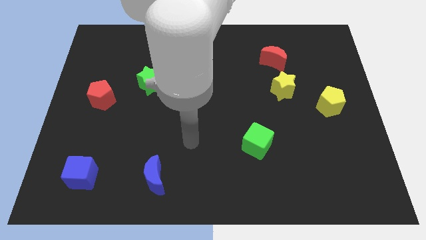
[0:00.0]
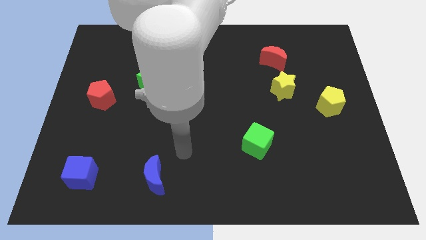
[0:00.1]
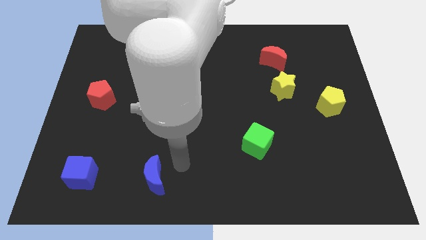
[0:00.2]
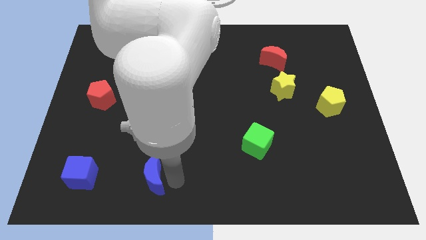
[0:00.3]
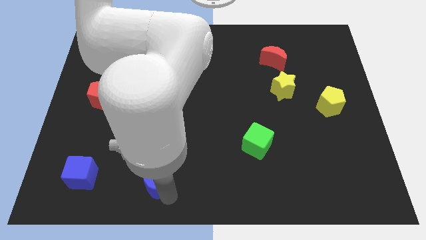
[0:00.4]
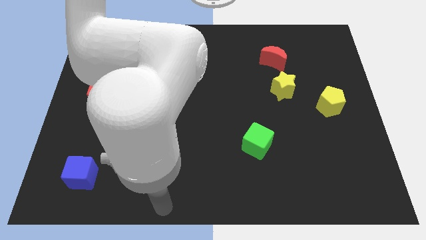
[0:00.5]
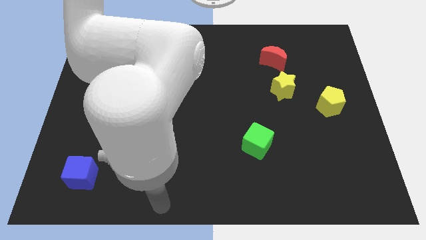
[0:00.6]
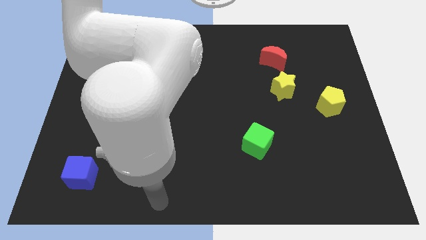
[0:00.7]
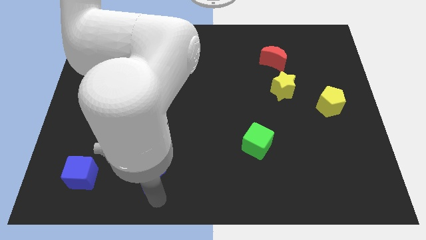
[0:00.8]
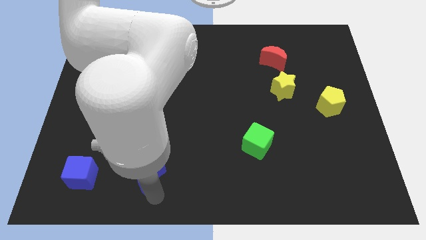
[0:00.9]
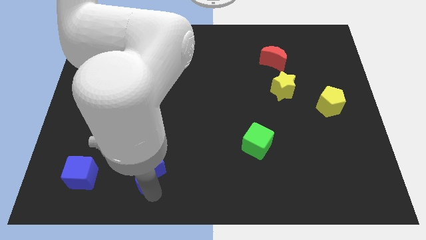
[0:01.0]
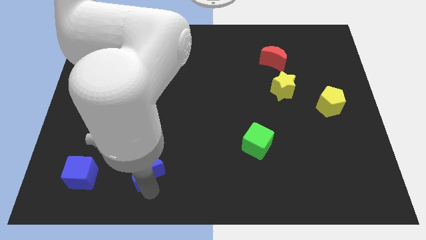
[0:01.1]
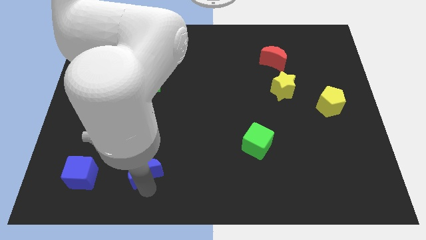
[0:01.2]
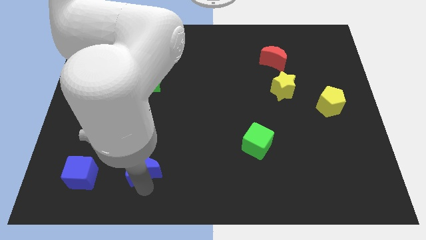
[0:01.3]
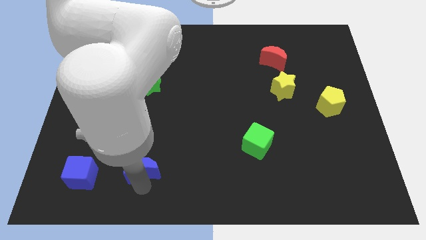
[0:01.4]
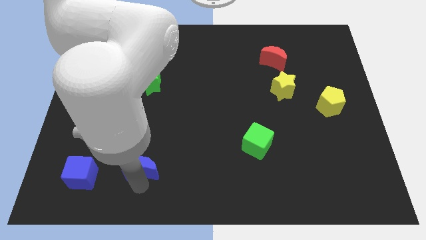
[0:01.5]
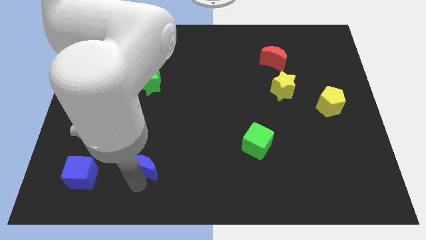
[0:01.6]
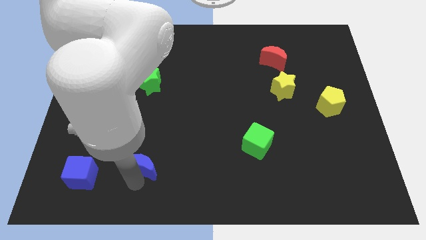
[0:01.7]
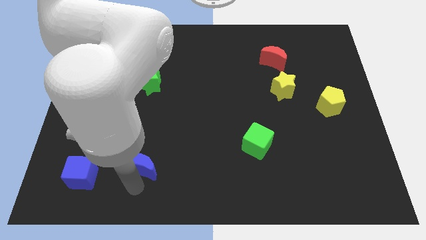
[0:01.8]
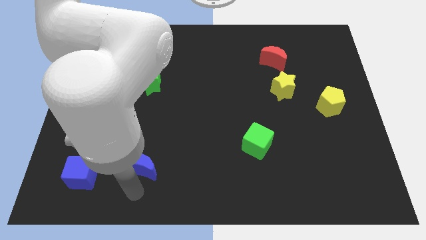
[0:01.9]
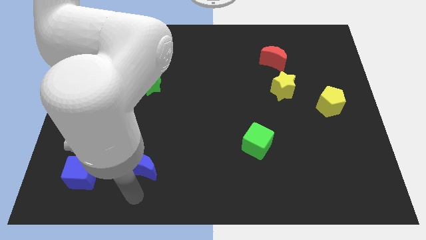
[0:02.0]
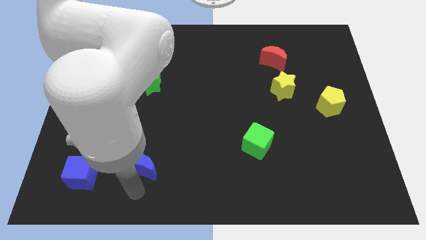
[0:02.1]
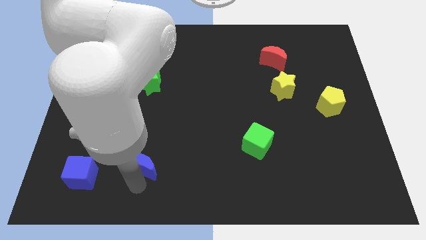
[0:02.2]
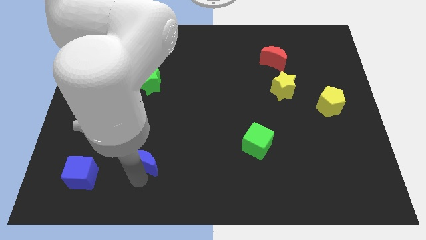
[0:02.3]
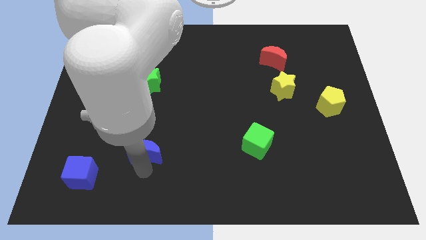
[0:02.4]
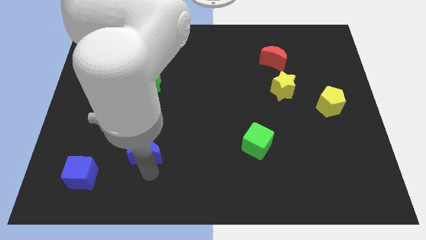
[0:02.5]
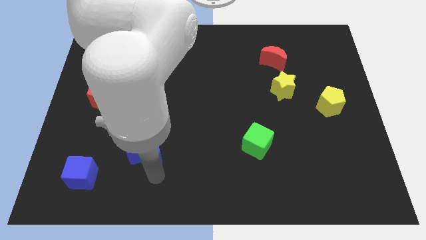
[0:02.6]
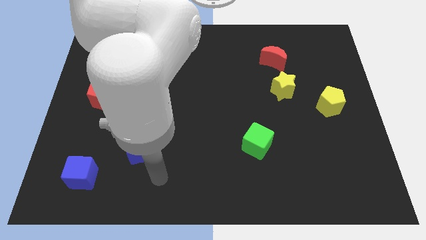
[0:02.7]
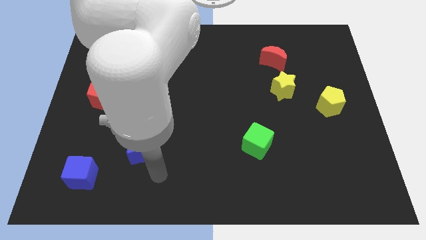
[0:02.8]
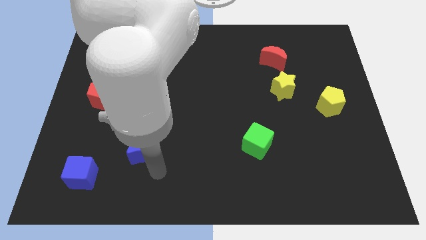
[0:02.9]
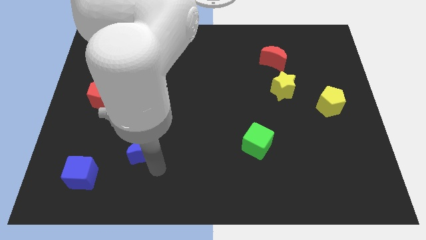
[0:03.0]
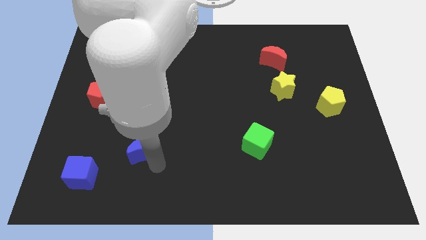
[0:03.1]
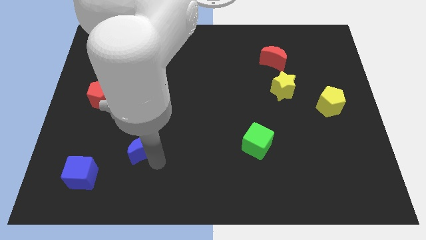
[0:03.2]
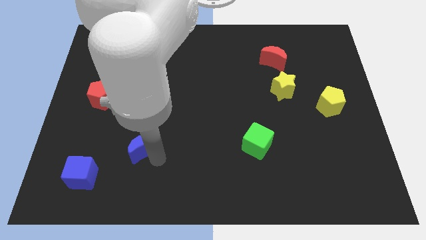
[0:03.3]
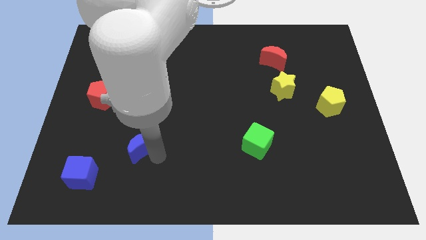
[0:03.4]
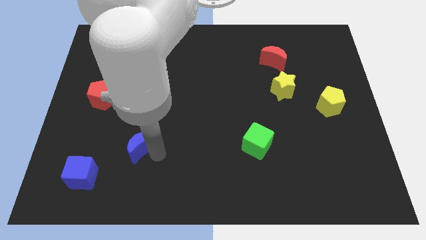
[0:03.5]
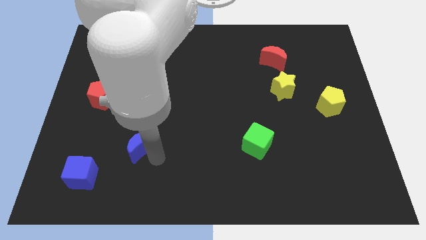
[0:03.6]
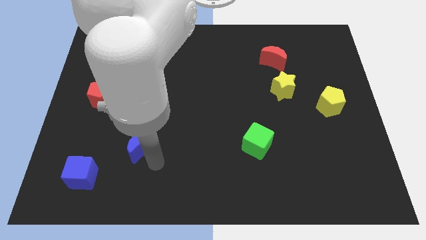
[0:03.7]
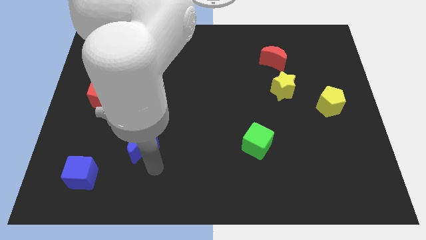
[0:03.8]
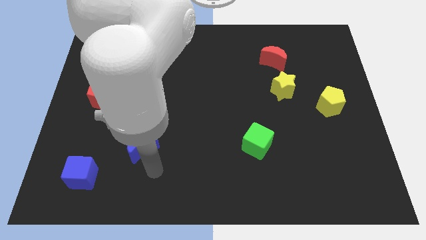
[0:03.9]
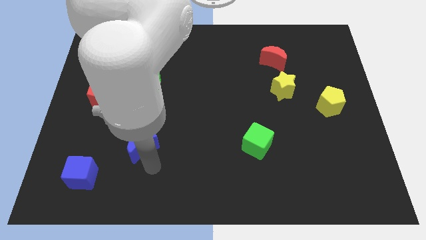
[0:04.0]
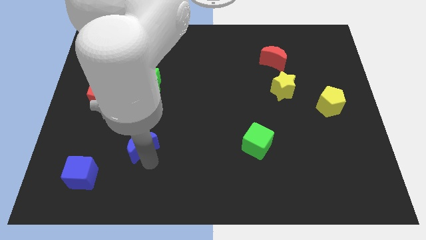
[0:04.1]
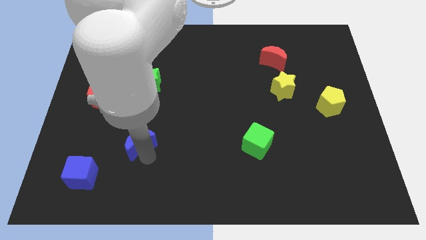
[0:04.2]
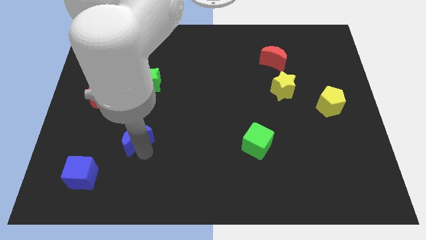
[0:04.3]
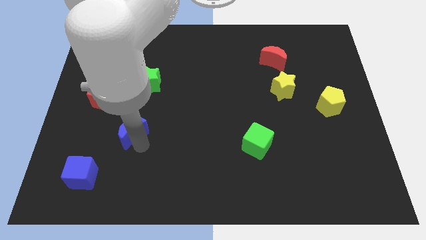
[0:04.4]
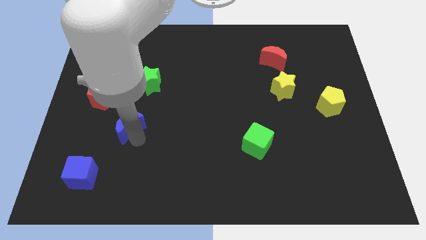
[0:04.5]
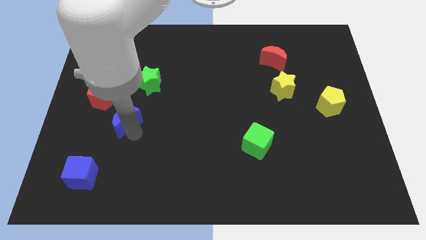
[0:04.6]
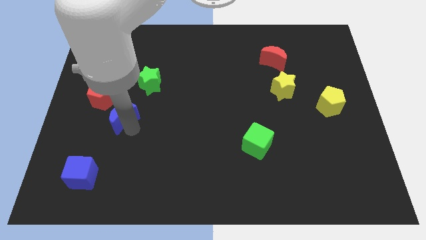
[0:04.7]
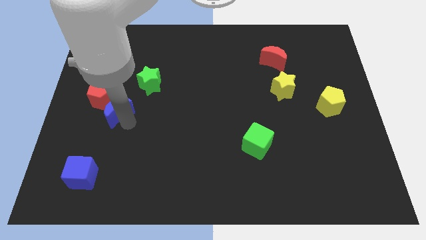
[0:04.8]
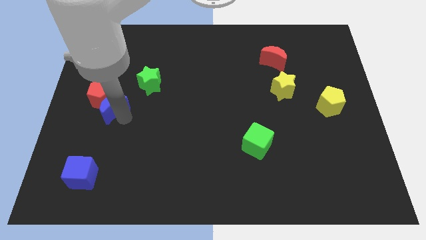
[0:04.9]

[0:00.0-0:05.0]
put the blue moon close to the red pentagon

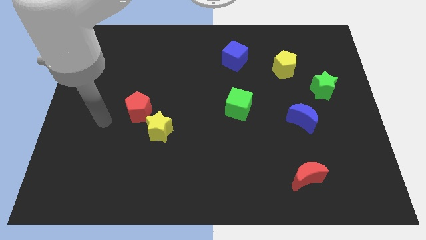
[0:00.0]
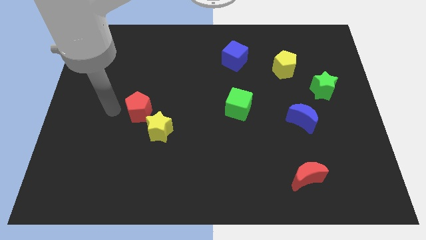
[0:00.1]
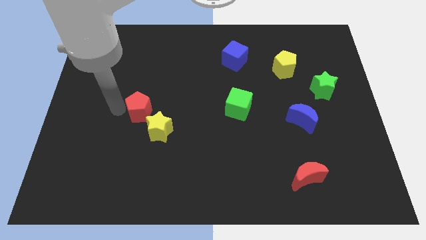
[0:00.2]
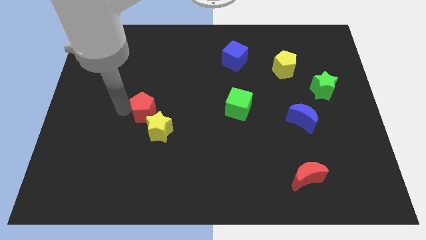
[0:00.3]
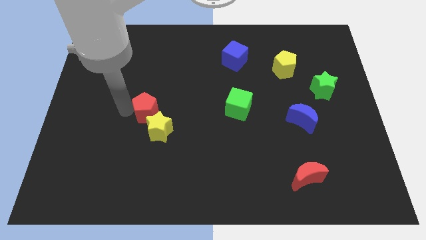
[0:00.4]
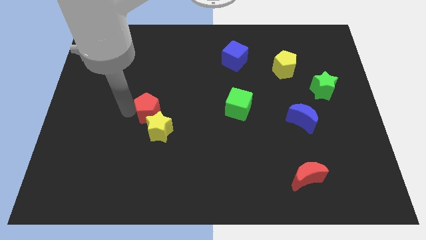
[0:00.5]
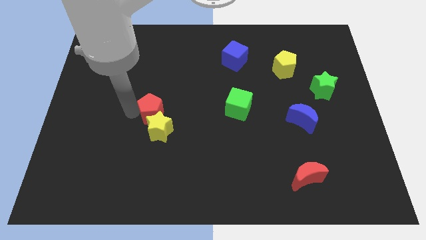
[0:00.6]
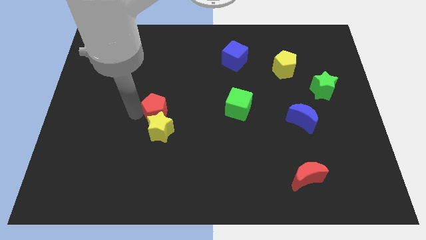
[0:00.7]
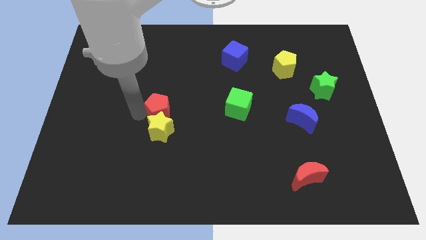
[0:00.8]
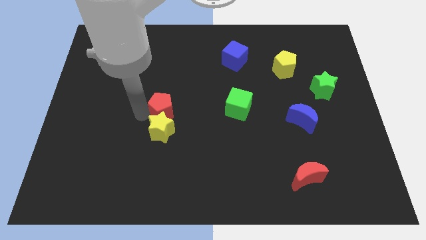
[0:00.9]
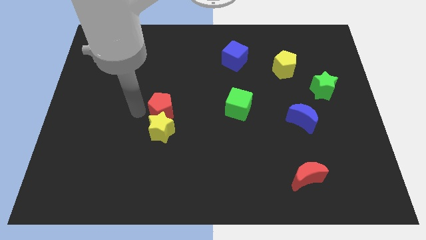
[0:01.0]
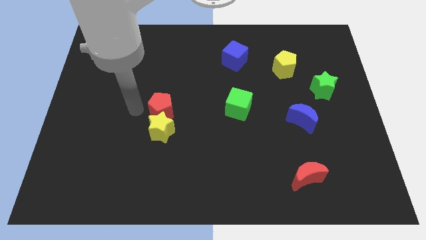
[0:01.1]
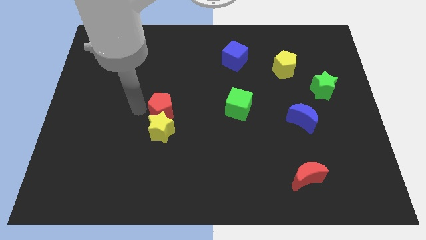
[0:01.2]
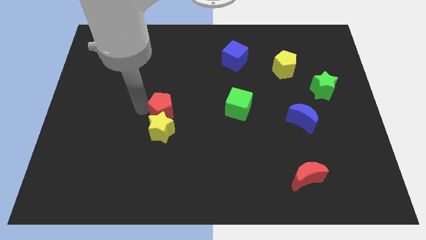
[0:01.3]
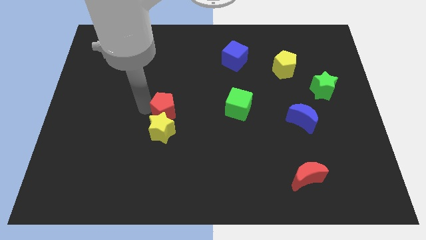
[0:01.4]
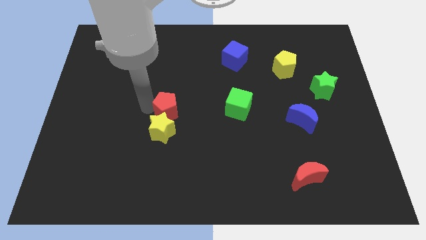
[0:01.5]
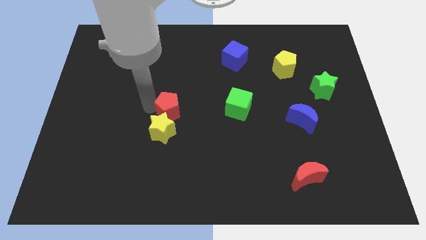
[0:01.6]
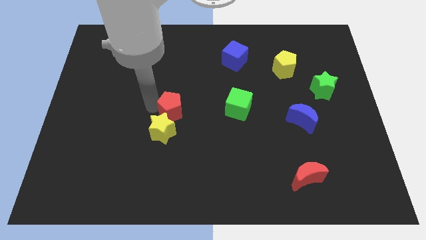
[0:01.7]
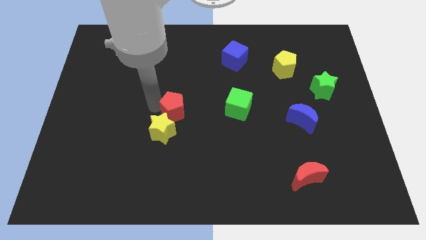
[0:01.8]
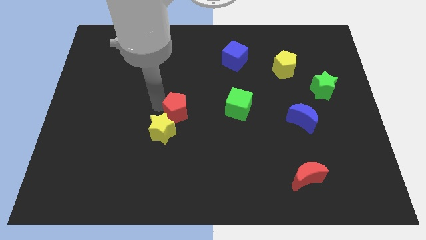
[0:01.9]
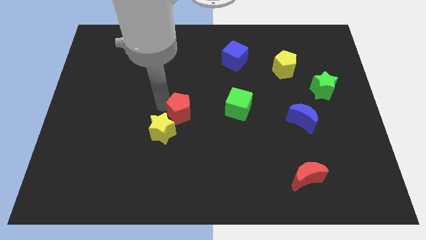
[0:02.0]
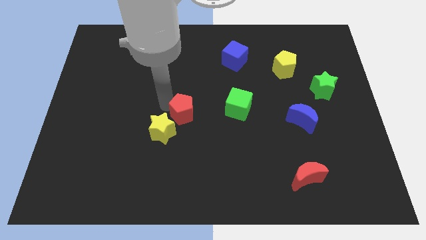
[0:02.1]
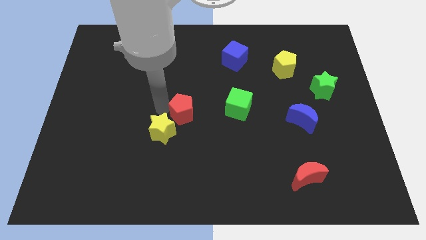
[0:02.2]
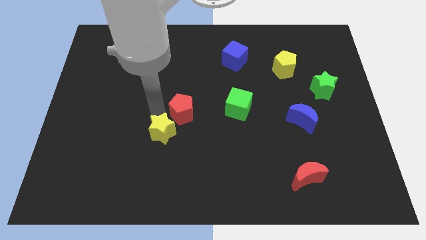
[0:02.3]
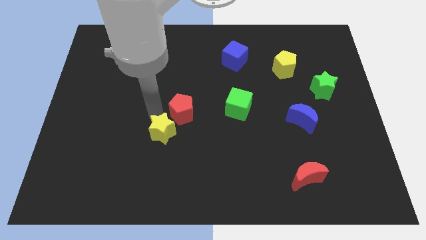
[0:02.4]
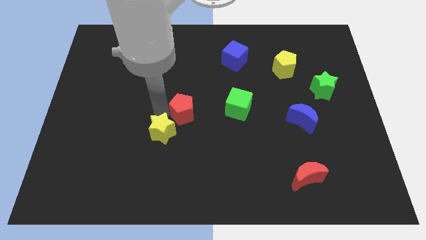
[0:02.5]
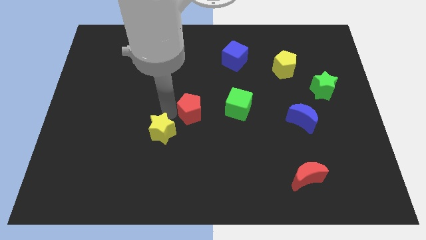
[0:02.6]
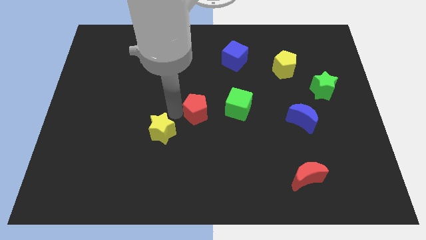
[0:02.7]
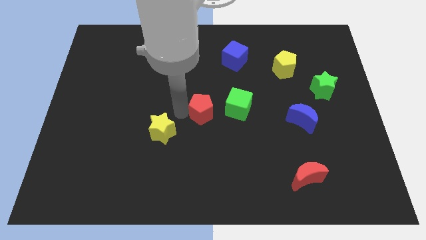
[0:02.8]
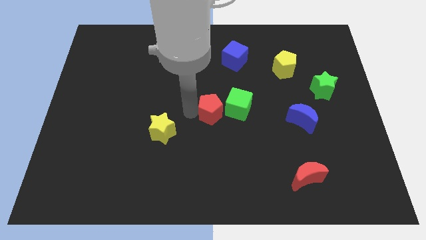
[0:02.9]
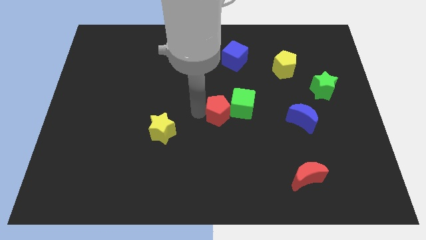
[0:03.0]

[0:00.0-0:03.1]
slide the red pentagon next to the green cube

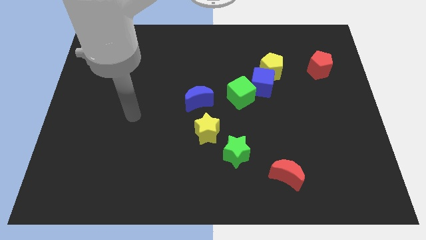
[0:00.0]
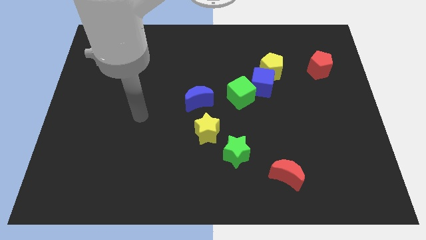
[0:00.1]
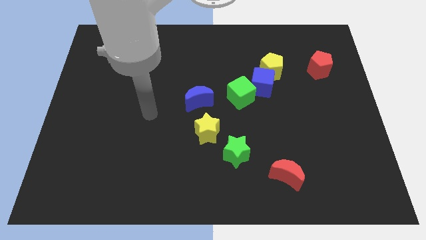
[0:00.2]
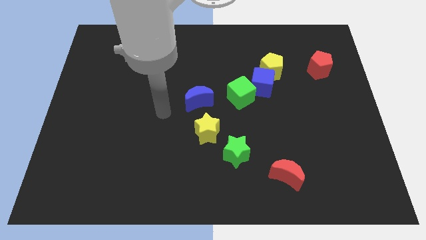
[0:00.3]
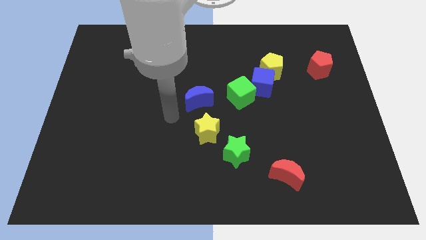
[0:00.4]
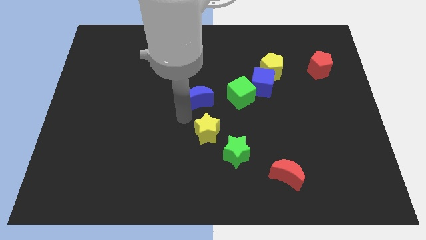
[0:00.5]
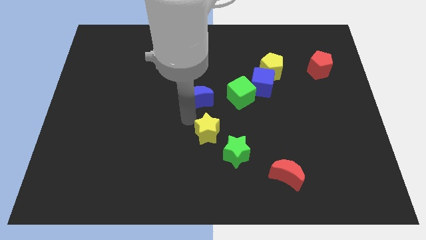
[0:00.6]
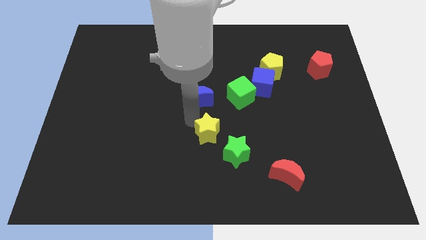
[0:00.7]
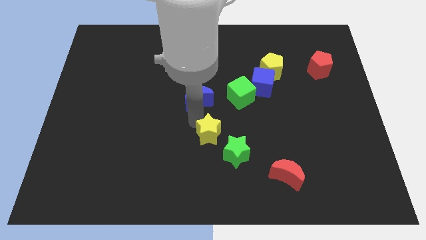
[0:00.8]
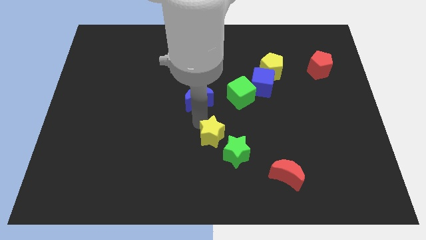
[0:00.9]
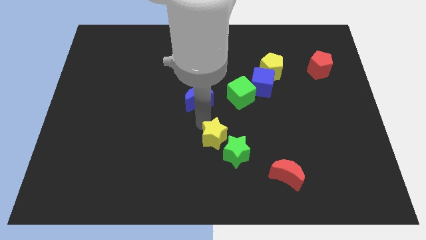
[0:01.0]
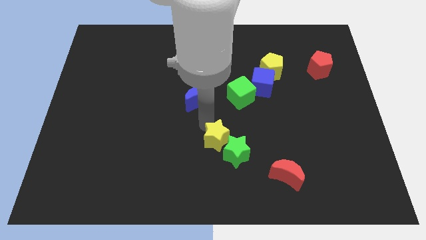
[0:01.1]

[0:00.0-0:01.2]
move the yellow star close to the green star
